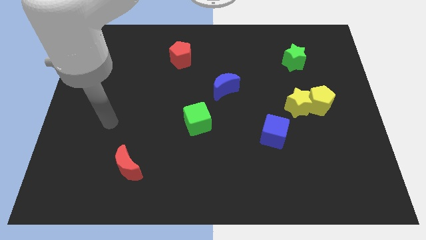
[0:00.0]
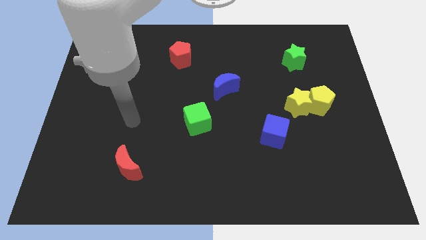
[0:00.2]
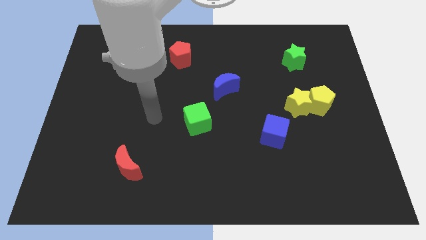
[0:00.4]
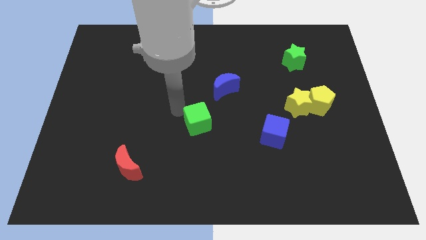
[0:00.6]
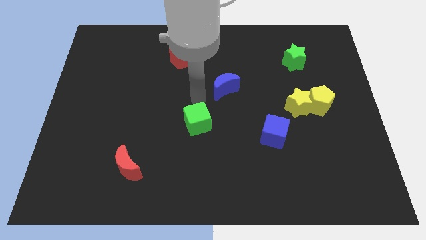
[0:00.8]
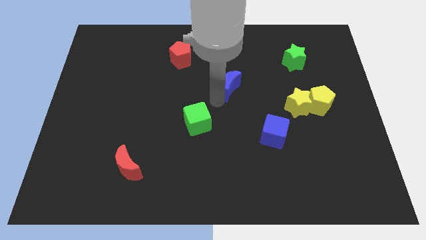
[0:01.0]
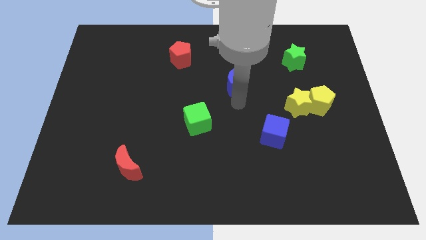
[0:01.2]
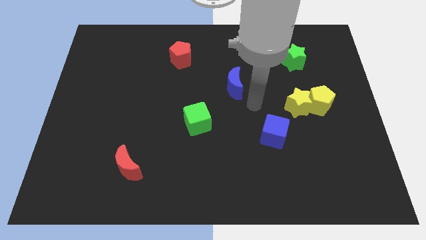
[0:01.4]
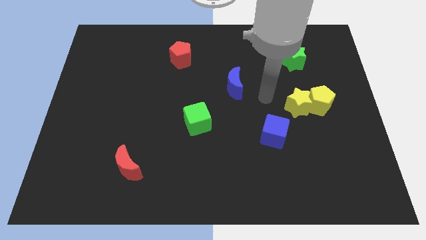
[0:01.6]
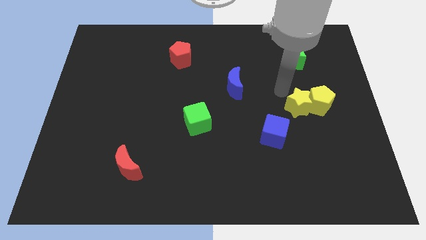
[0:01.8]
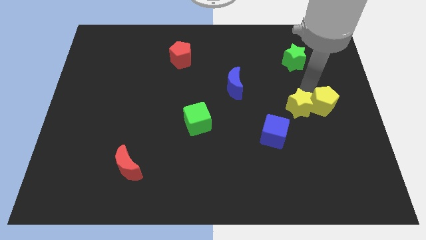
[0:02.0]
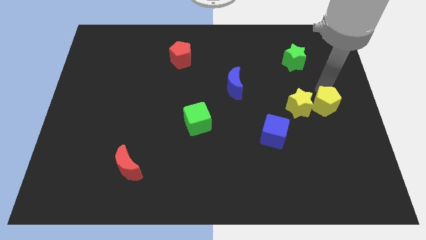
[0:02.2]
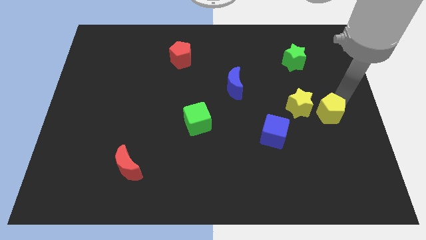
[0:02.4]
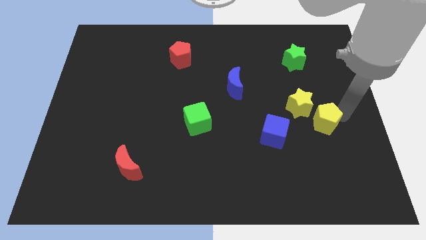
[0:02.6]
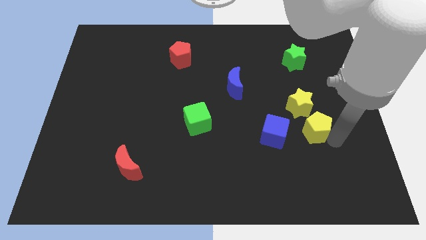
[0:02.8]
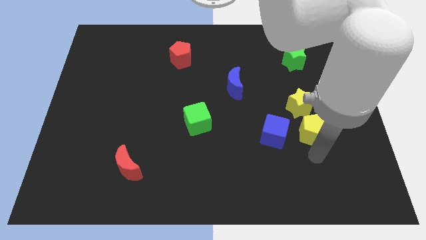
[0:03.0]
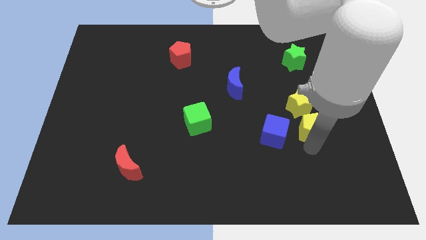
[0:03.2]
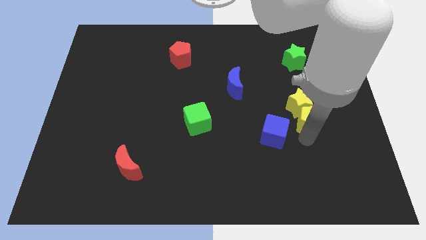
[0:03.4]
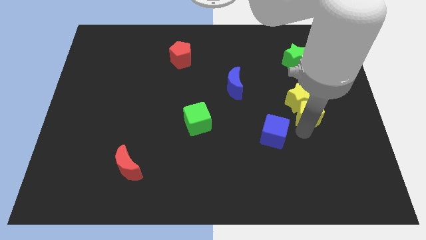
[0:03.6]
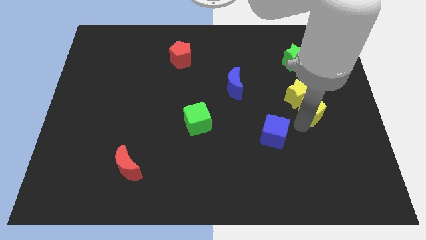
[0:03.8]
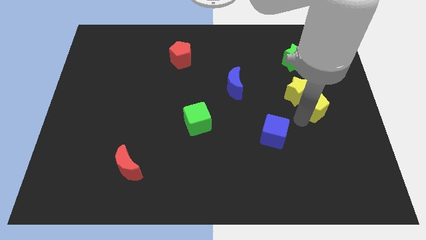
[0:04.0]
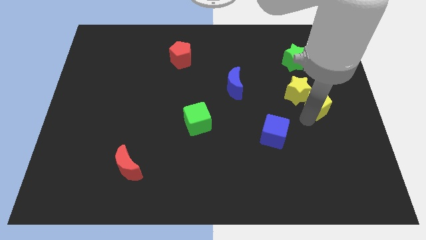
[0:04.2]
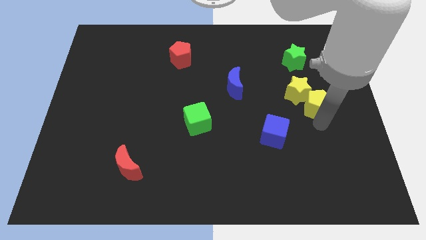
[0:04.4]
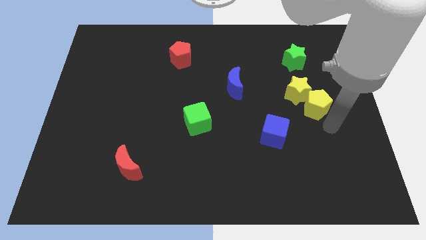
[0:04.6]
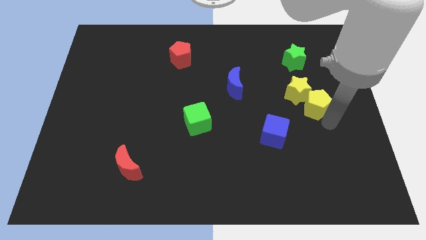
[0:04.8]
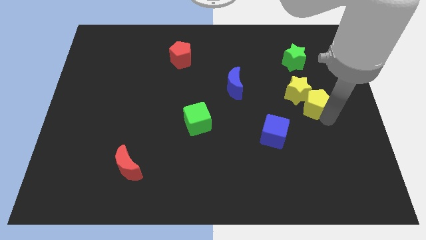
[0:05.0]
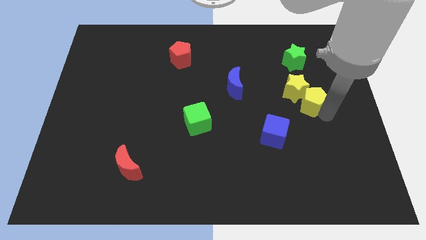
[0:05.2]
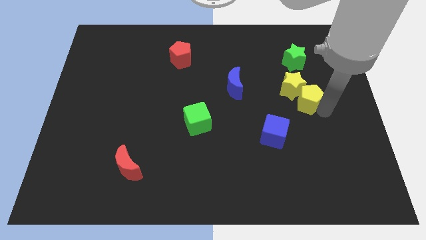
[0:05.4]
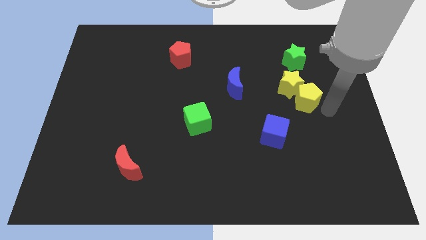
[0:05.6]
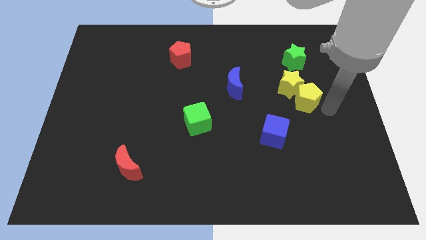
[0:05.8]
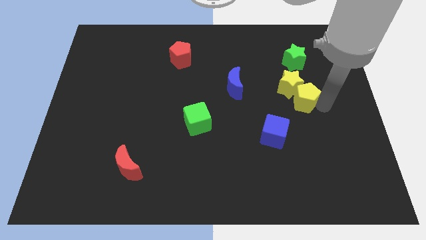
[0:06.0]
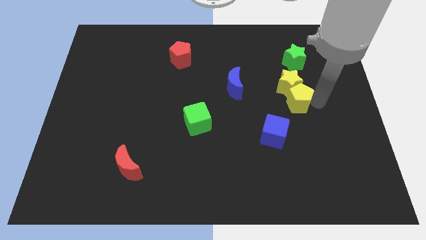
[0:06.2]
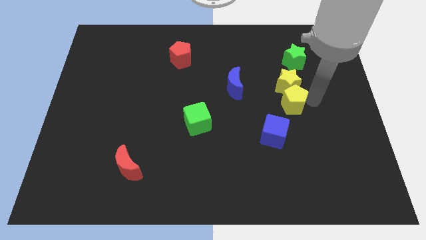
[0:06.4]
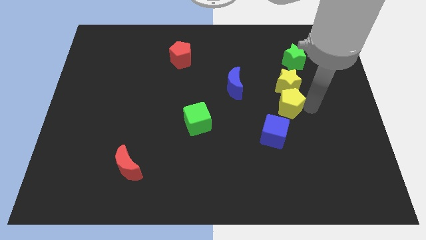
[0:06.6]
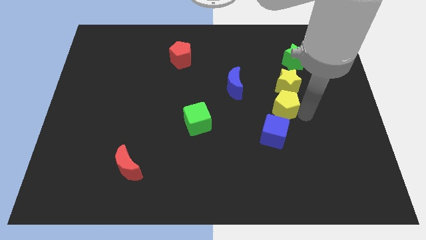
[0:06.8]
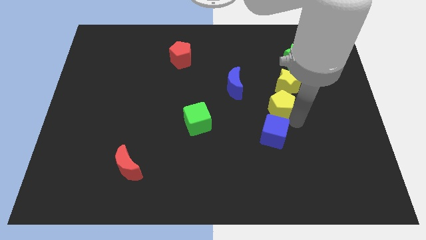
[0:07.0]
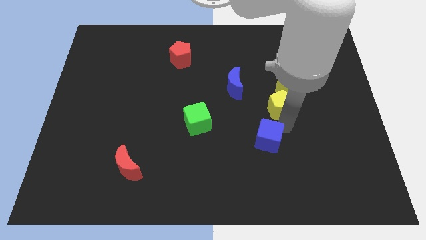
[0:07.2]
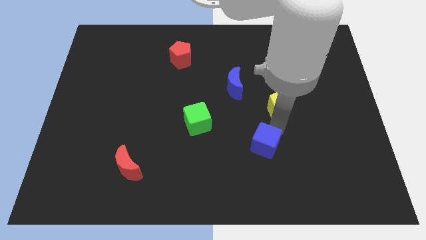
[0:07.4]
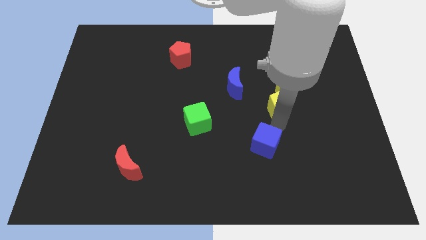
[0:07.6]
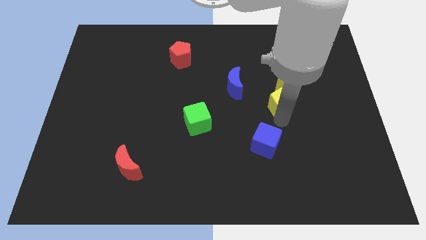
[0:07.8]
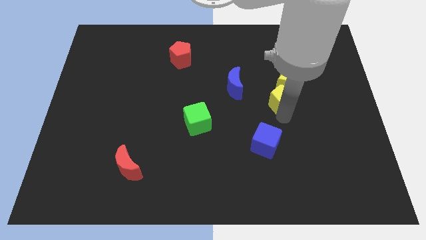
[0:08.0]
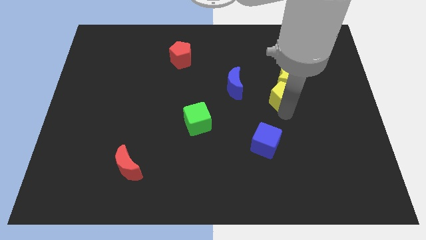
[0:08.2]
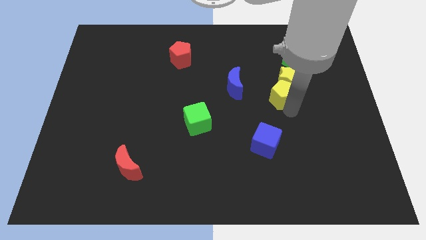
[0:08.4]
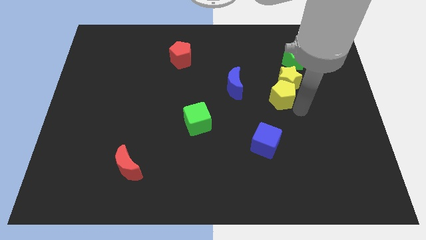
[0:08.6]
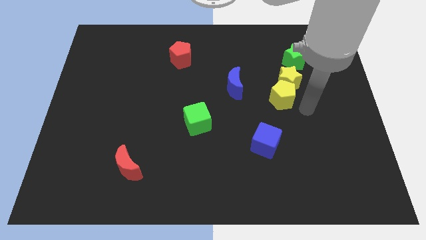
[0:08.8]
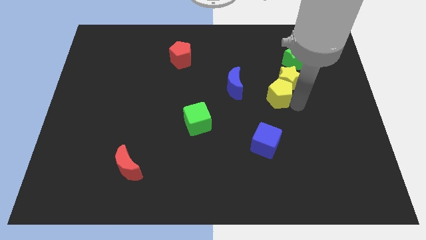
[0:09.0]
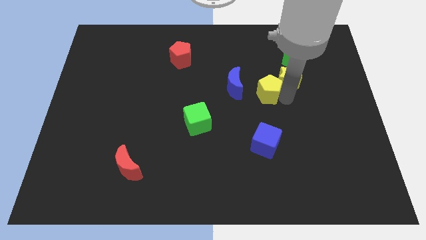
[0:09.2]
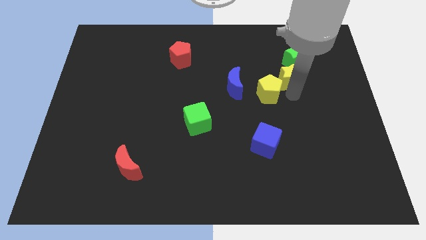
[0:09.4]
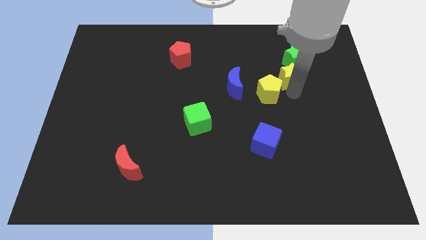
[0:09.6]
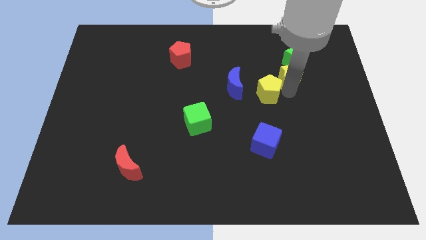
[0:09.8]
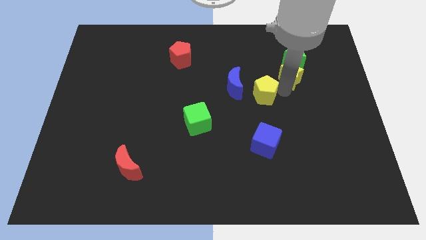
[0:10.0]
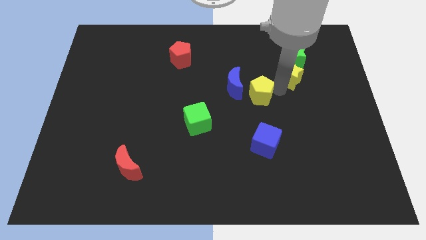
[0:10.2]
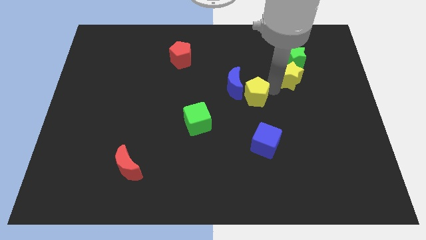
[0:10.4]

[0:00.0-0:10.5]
push the yellow pentagon next to the blue moon

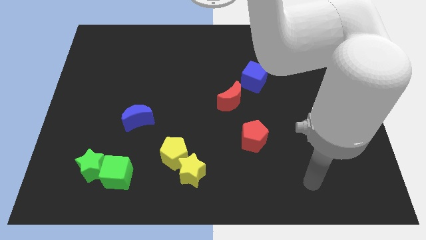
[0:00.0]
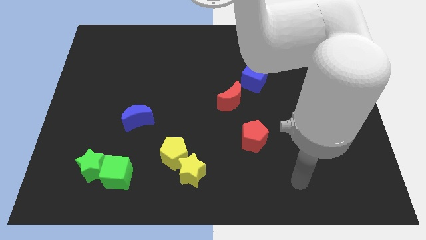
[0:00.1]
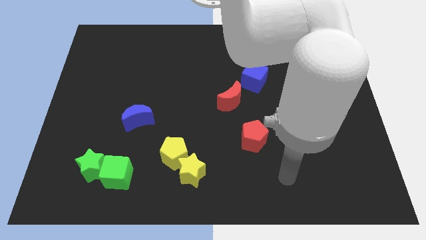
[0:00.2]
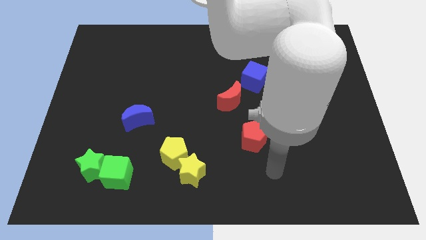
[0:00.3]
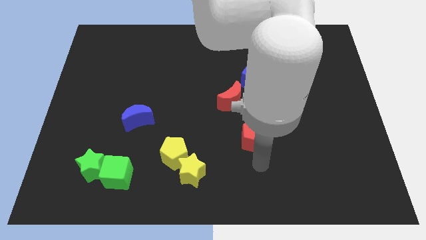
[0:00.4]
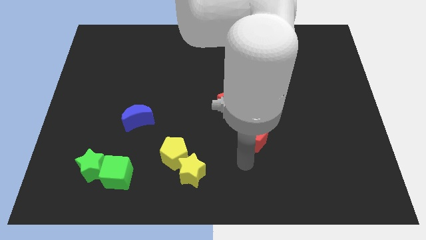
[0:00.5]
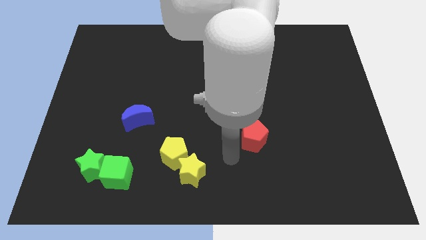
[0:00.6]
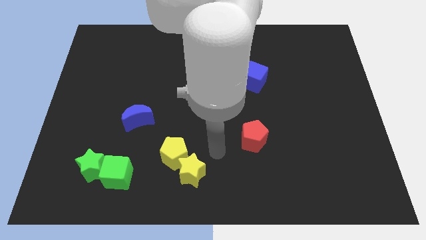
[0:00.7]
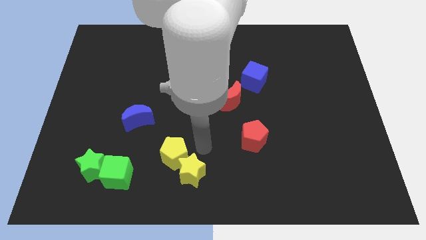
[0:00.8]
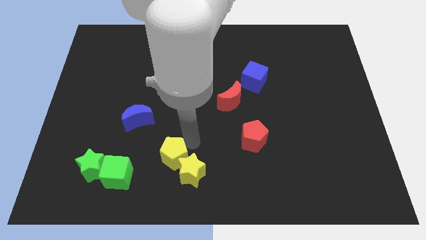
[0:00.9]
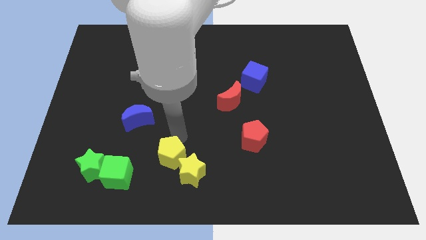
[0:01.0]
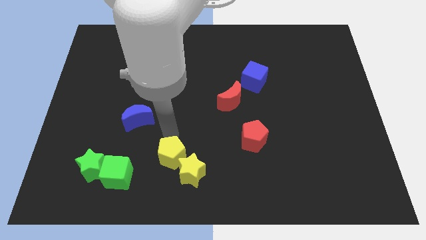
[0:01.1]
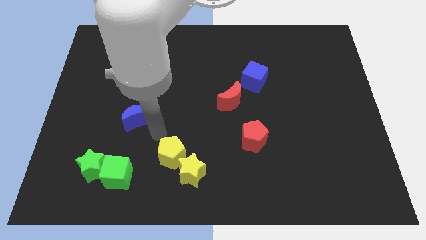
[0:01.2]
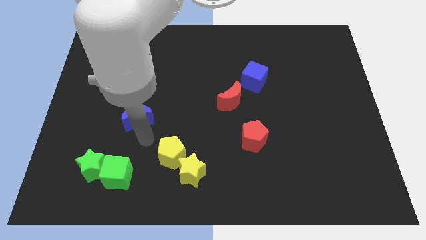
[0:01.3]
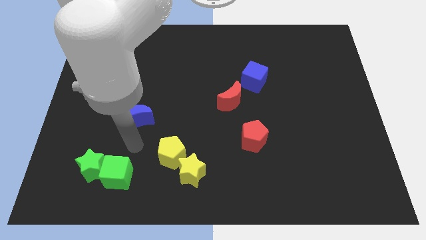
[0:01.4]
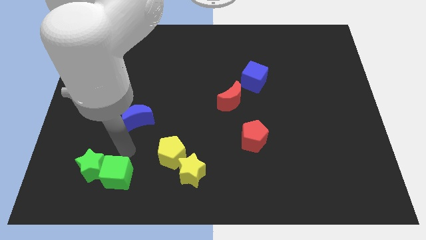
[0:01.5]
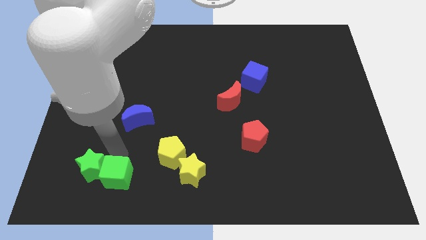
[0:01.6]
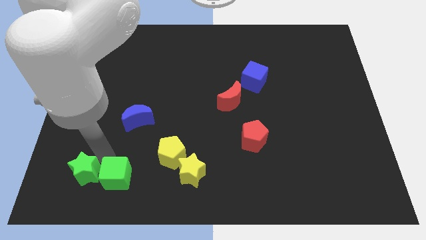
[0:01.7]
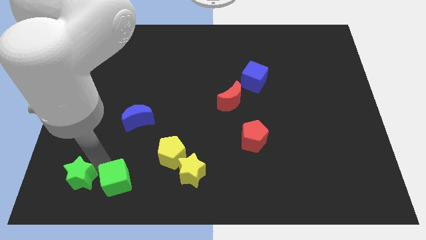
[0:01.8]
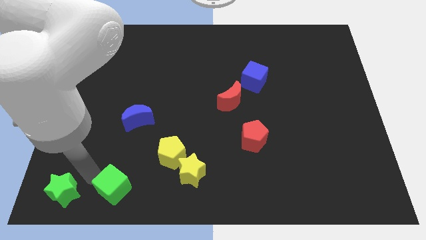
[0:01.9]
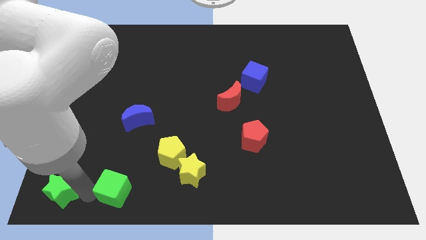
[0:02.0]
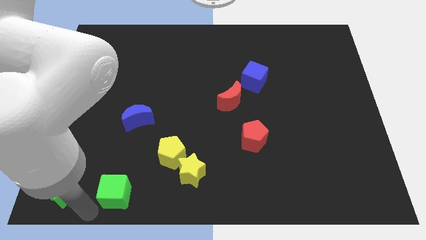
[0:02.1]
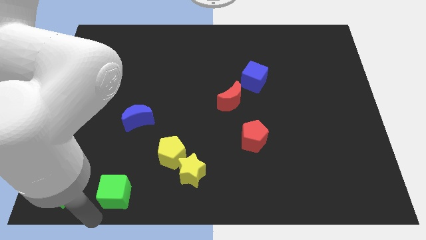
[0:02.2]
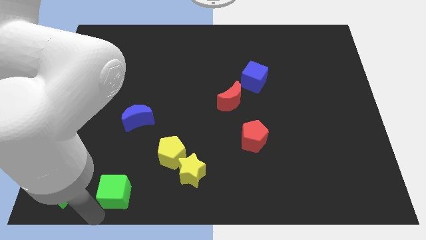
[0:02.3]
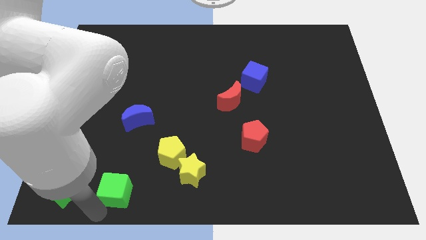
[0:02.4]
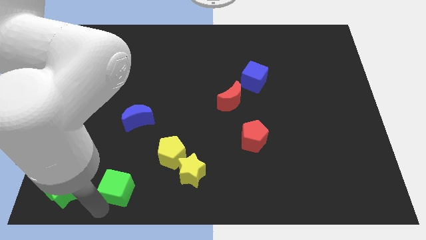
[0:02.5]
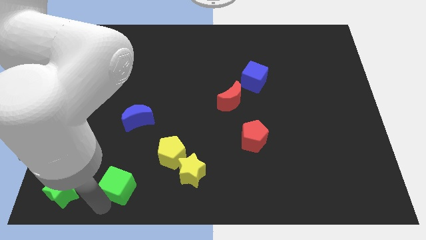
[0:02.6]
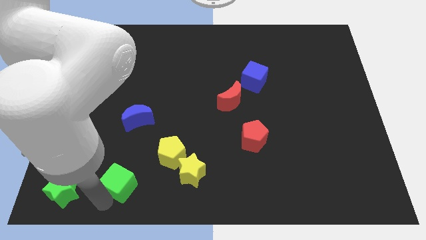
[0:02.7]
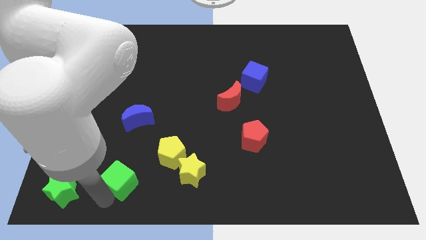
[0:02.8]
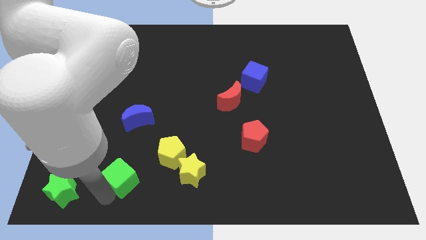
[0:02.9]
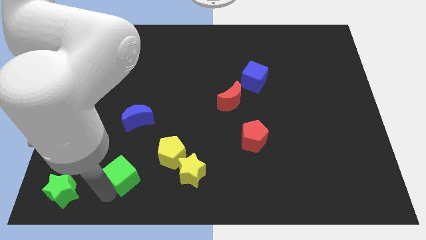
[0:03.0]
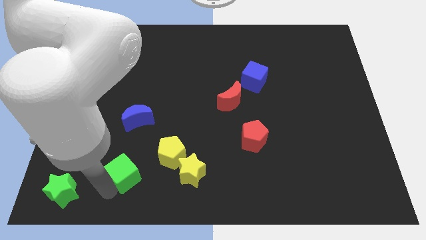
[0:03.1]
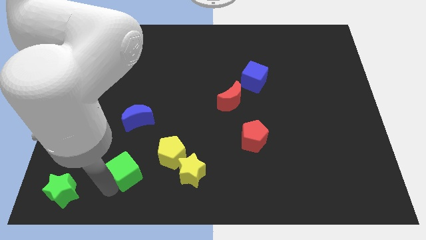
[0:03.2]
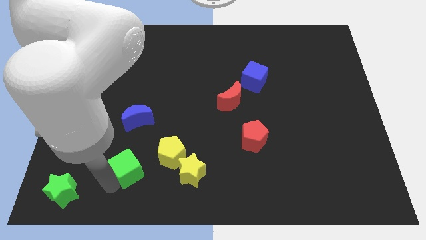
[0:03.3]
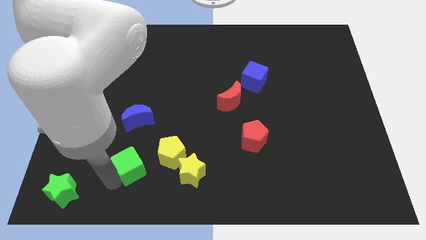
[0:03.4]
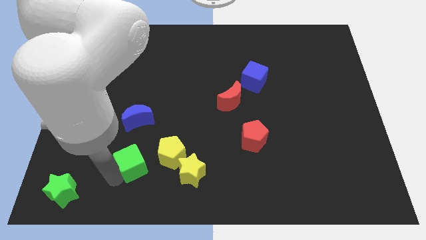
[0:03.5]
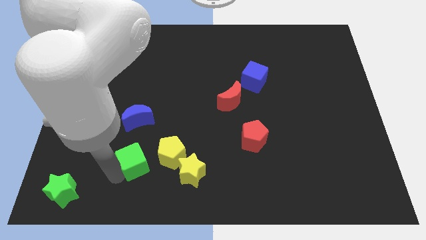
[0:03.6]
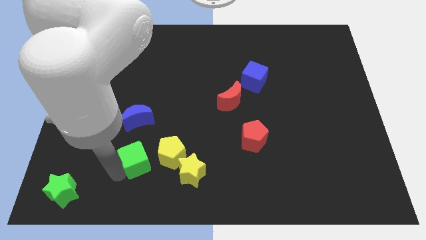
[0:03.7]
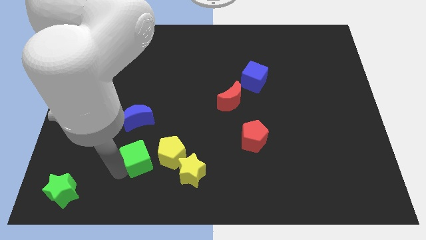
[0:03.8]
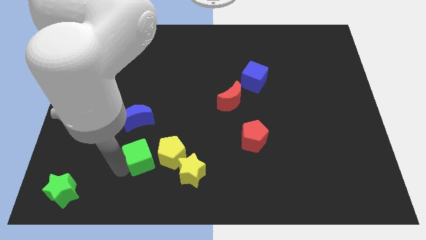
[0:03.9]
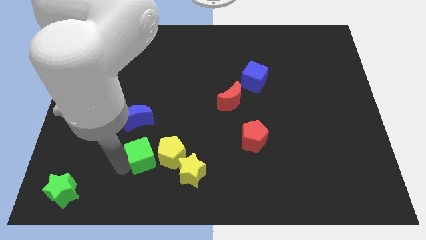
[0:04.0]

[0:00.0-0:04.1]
put the green cube towards the yellow pentagon
